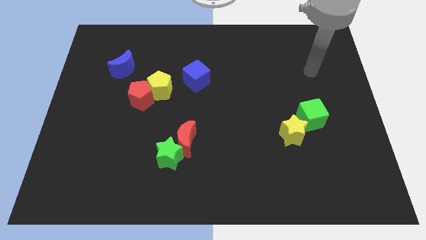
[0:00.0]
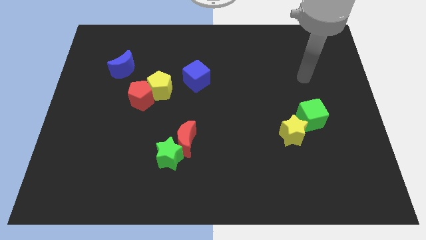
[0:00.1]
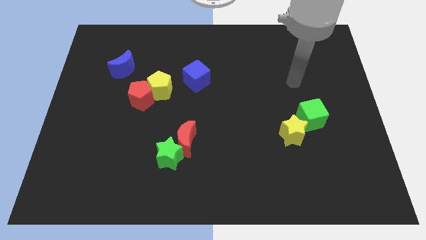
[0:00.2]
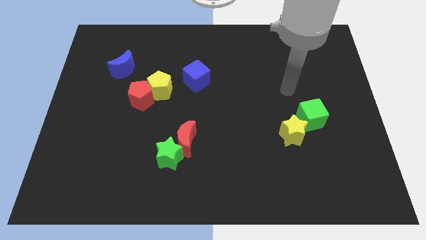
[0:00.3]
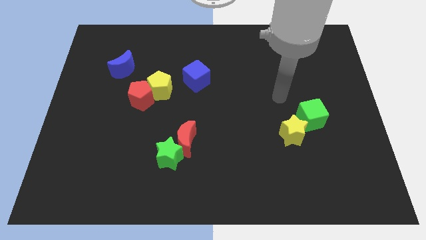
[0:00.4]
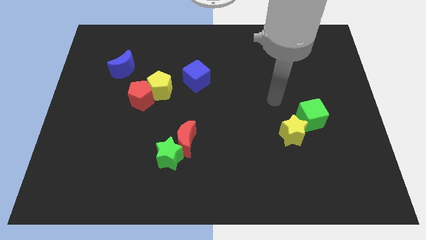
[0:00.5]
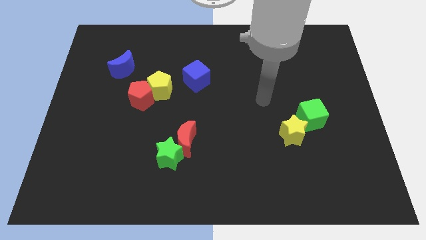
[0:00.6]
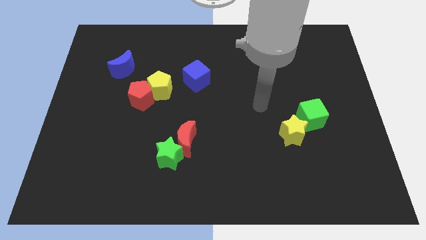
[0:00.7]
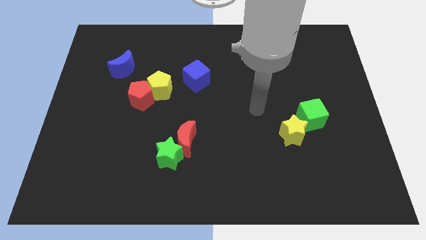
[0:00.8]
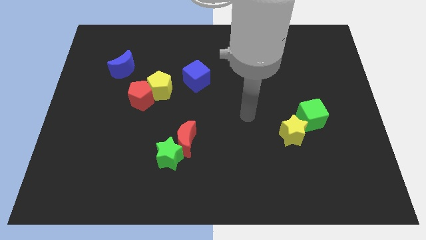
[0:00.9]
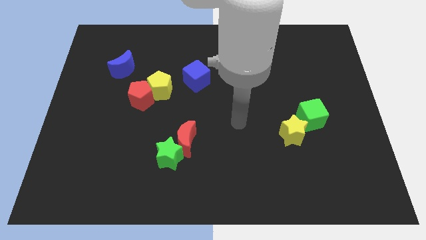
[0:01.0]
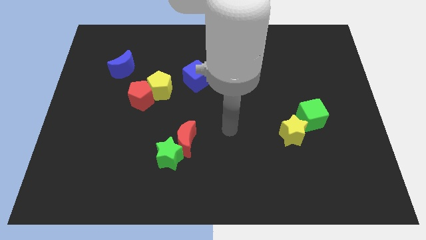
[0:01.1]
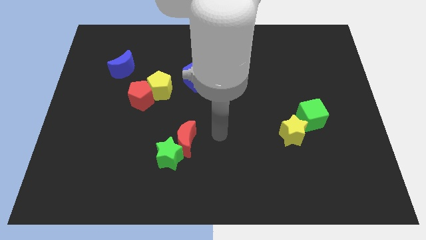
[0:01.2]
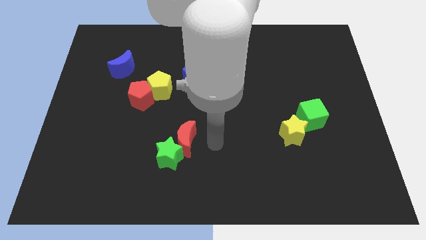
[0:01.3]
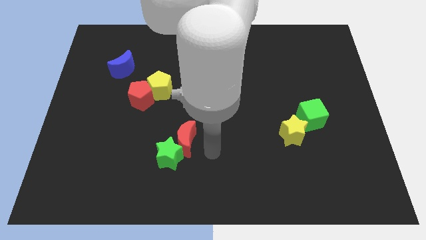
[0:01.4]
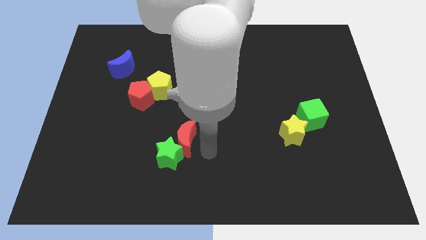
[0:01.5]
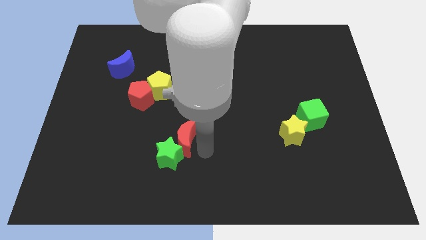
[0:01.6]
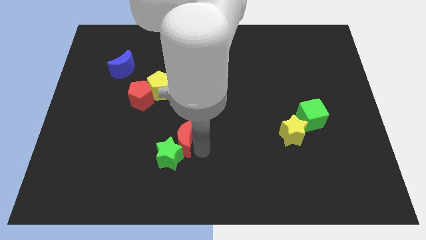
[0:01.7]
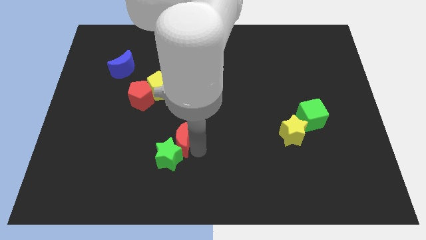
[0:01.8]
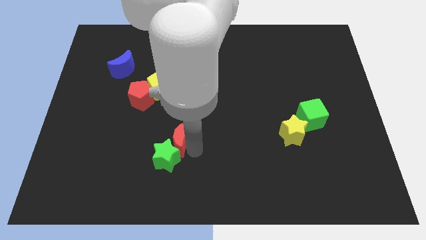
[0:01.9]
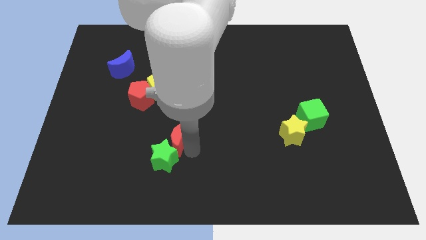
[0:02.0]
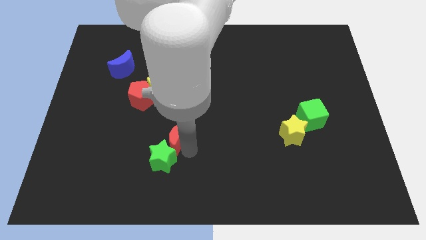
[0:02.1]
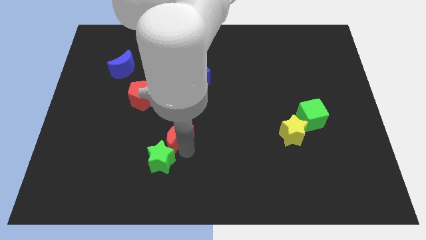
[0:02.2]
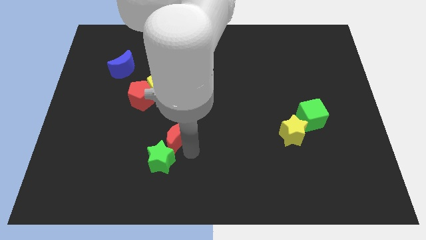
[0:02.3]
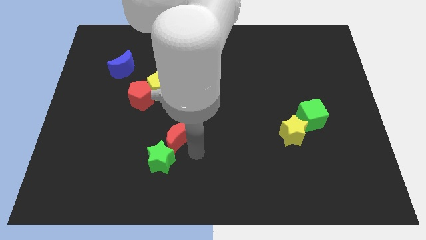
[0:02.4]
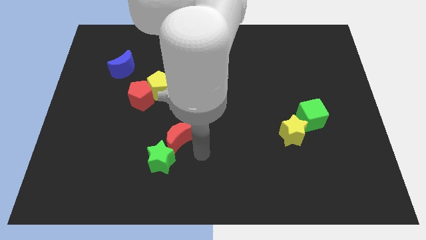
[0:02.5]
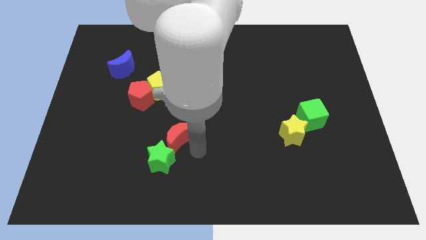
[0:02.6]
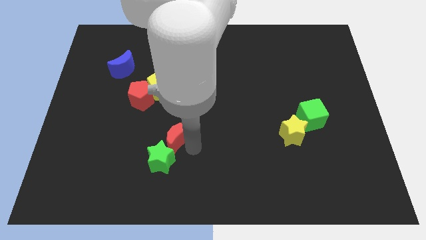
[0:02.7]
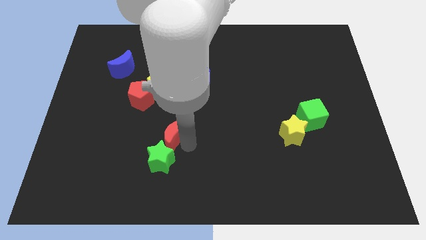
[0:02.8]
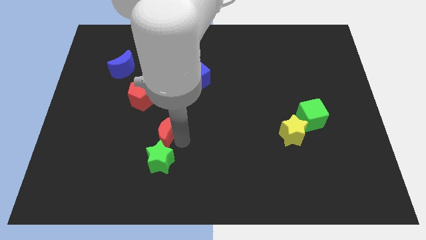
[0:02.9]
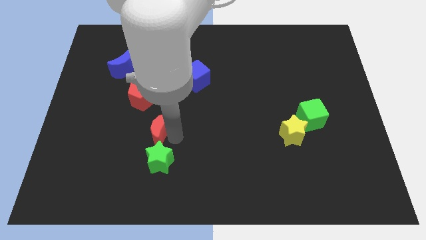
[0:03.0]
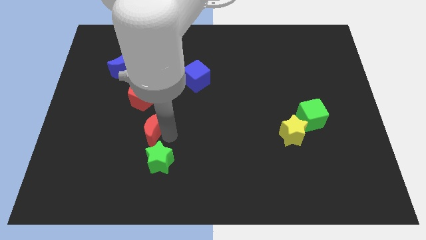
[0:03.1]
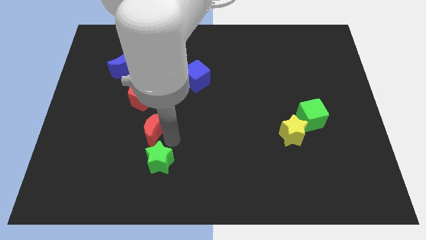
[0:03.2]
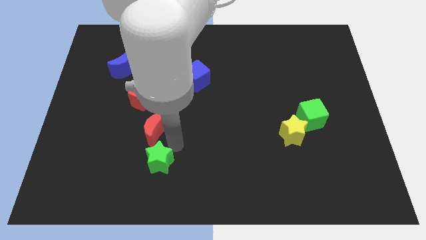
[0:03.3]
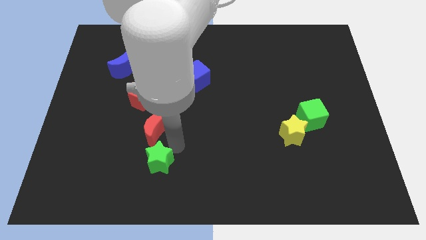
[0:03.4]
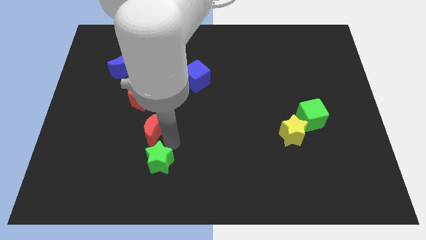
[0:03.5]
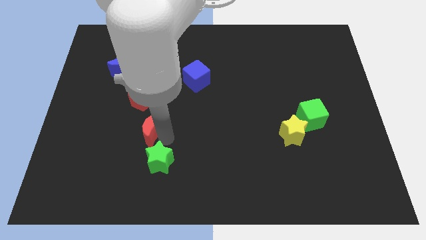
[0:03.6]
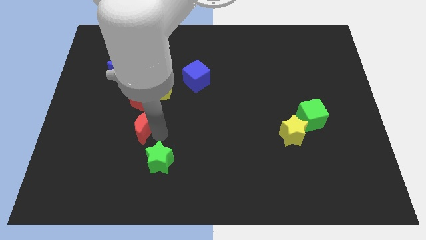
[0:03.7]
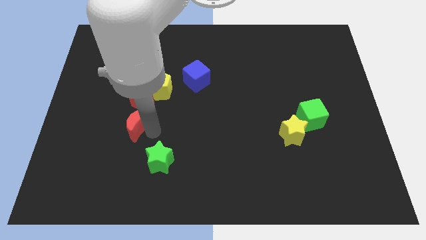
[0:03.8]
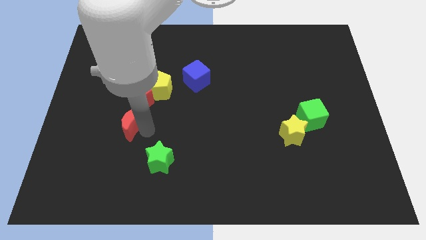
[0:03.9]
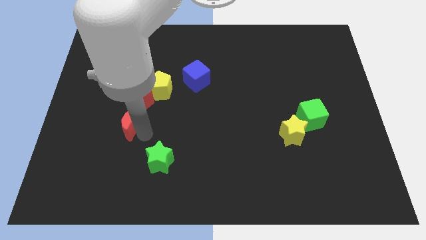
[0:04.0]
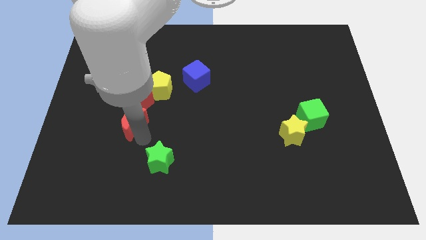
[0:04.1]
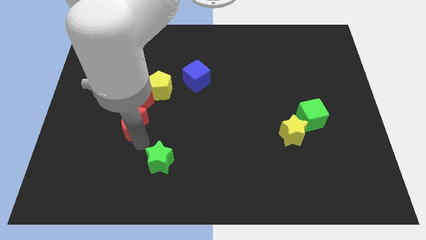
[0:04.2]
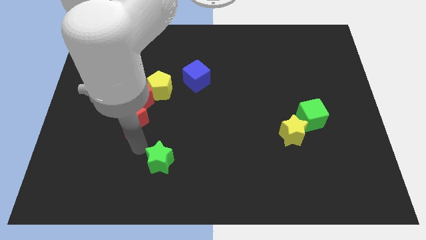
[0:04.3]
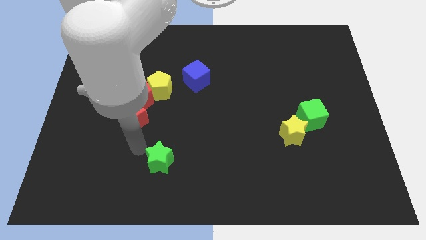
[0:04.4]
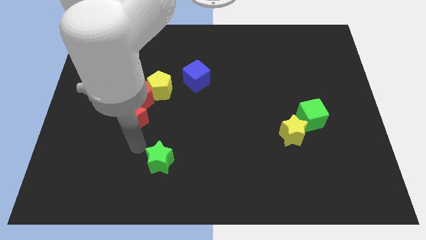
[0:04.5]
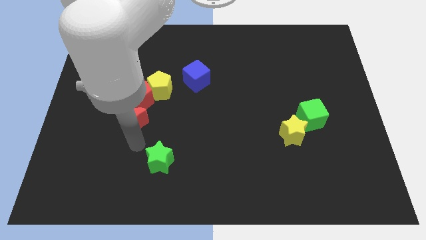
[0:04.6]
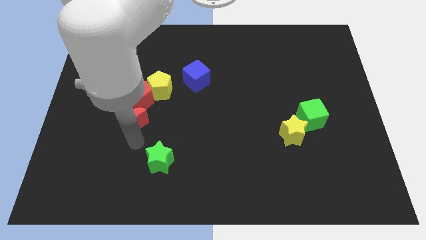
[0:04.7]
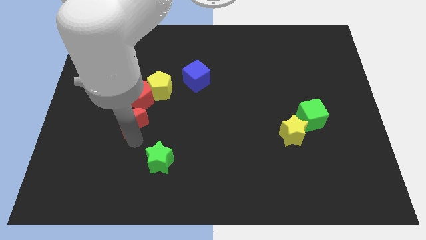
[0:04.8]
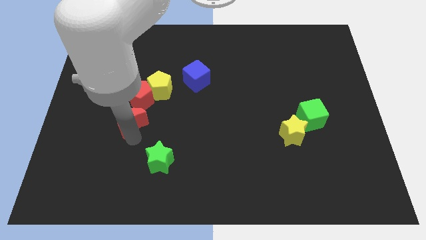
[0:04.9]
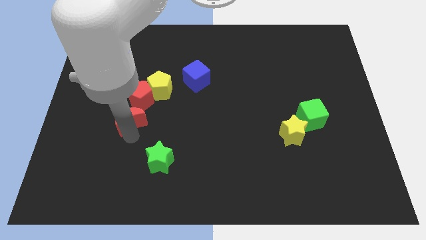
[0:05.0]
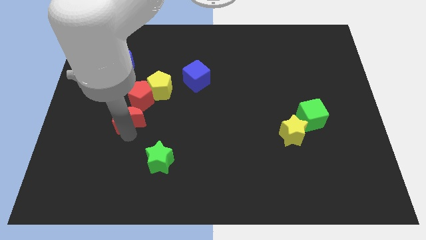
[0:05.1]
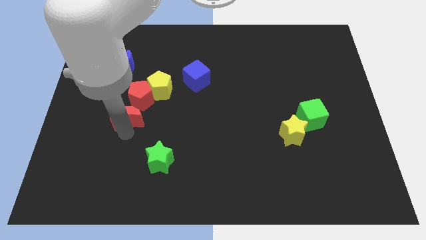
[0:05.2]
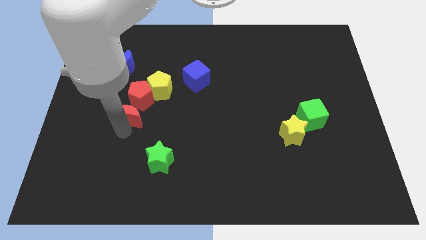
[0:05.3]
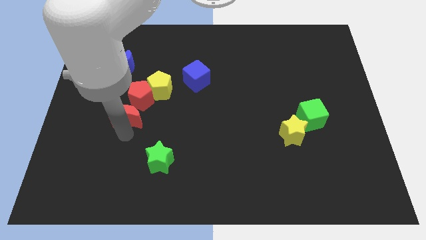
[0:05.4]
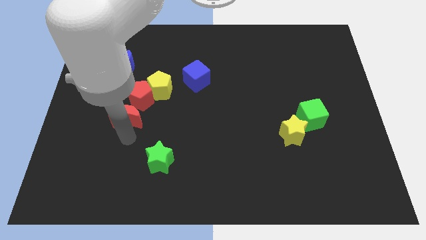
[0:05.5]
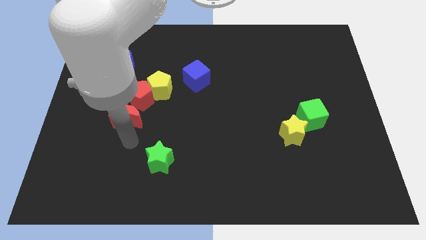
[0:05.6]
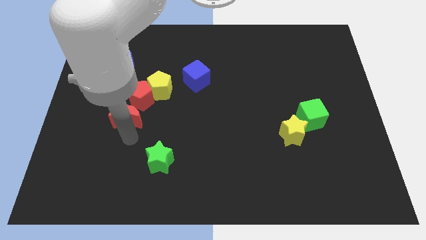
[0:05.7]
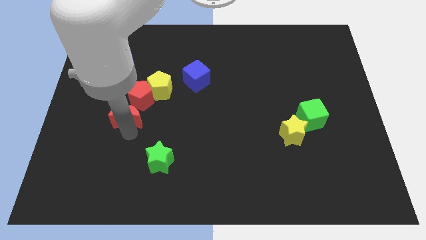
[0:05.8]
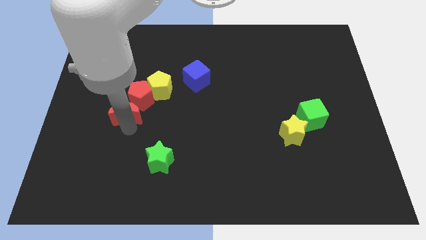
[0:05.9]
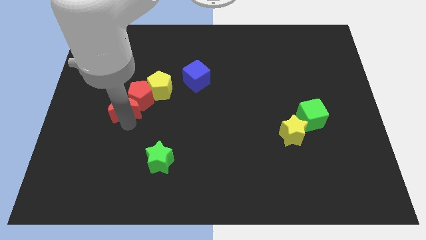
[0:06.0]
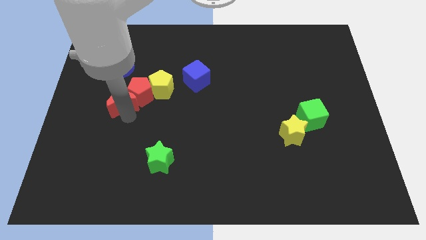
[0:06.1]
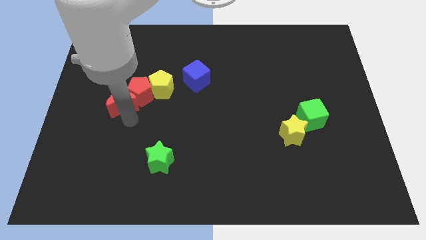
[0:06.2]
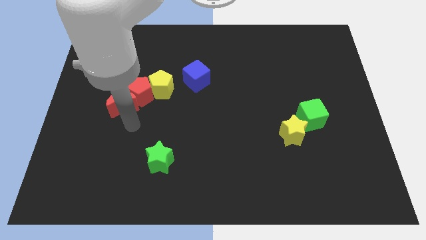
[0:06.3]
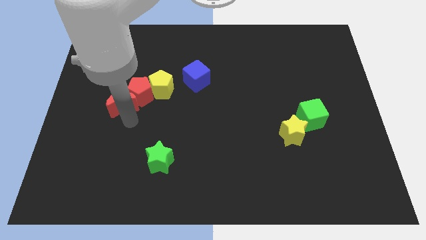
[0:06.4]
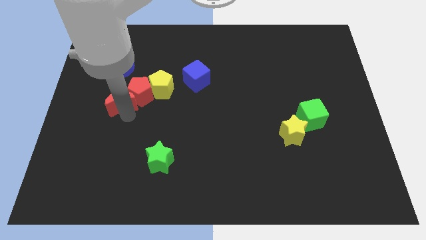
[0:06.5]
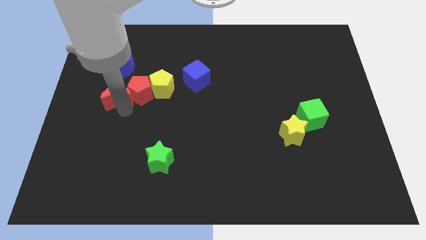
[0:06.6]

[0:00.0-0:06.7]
move the red moon diagonally upwards and left

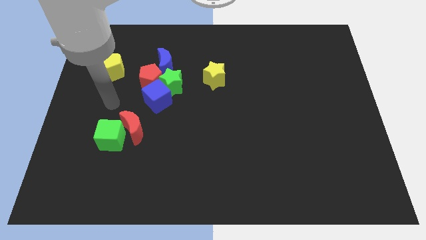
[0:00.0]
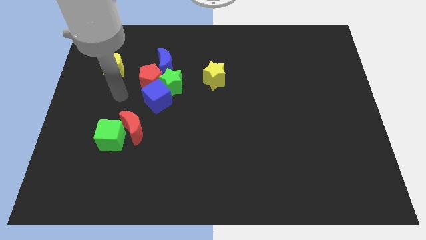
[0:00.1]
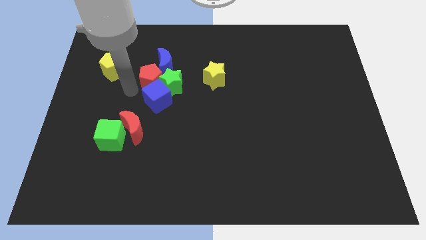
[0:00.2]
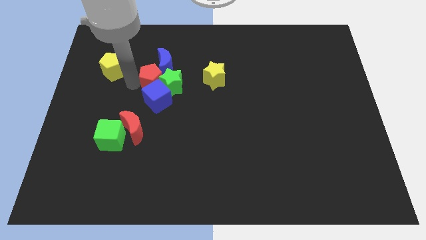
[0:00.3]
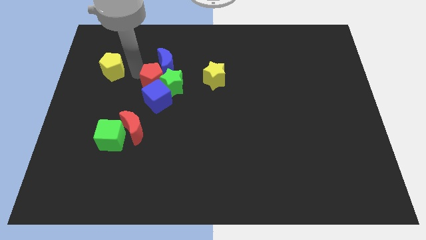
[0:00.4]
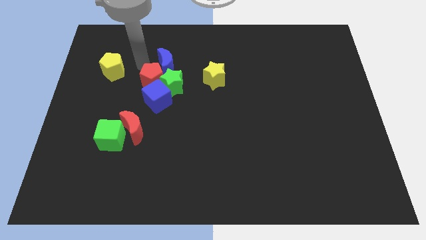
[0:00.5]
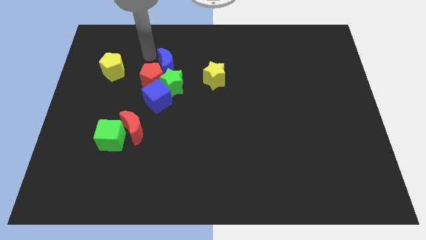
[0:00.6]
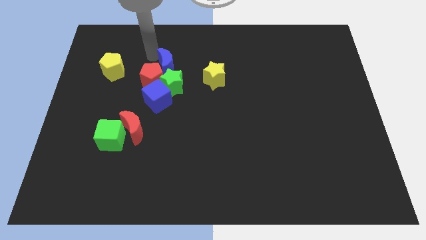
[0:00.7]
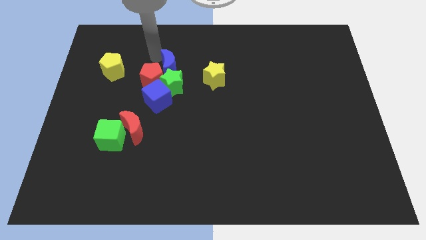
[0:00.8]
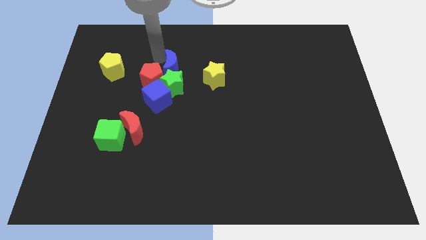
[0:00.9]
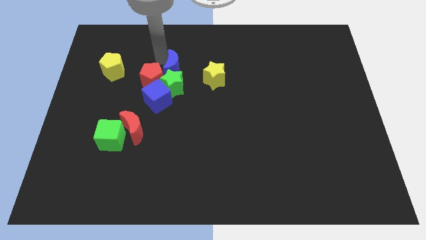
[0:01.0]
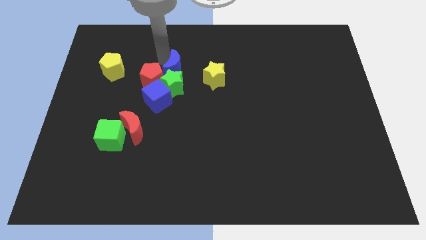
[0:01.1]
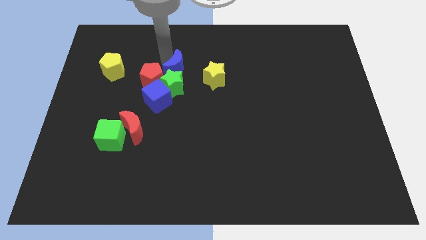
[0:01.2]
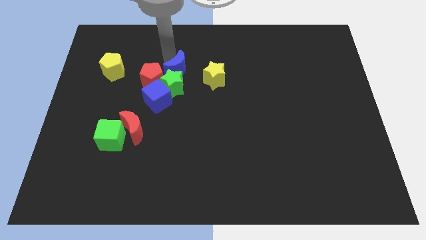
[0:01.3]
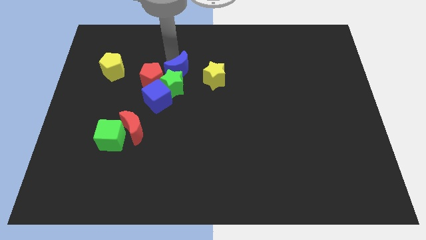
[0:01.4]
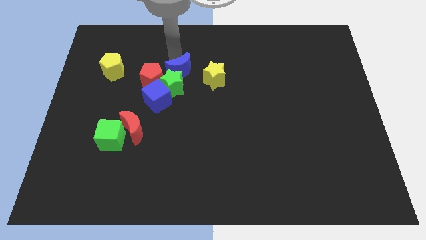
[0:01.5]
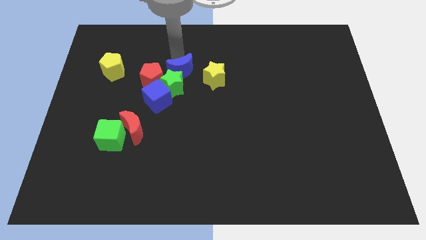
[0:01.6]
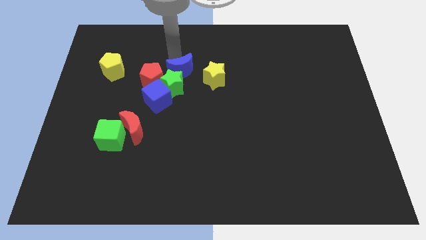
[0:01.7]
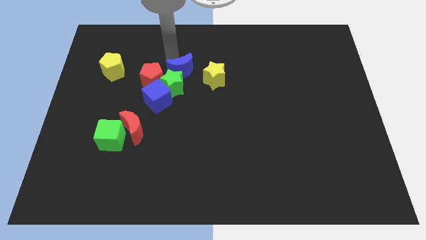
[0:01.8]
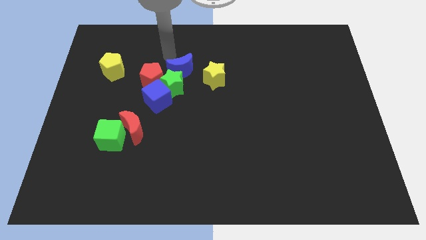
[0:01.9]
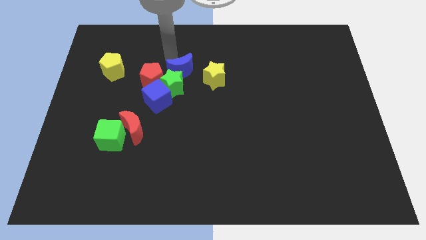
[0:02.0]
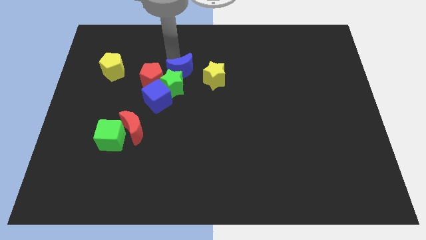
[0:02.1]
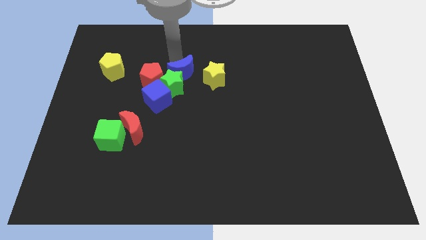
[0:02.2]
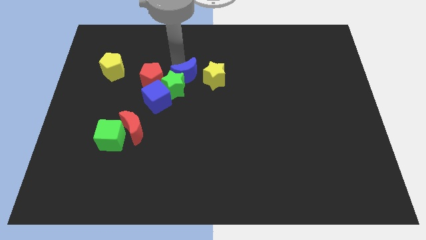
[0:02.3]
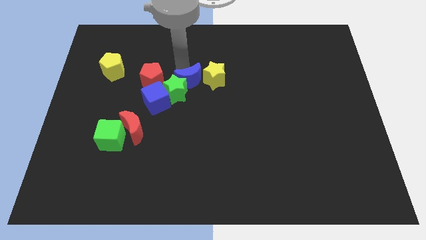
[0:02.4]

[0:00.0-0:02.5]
slightly push the blue moon downwards and then right
